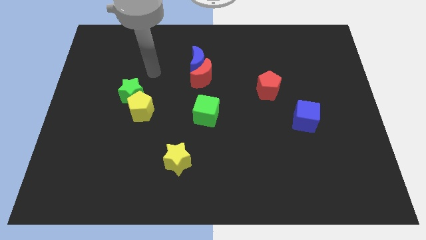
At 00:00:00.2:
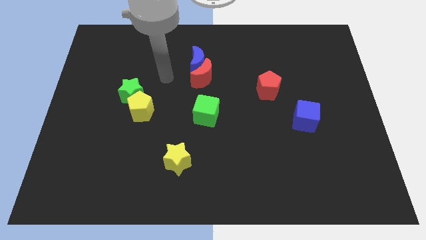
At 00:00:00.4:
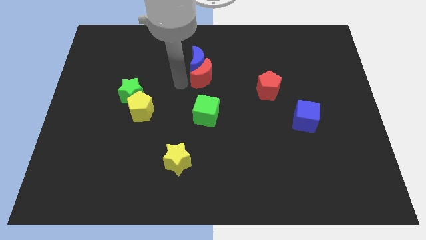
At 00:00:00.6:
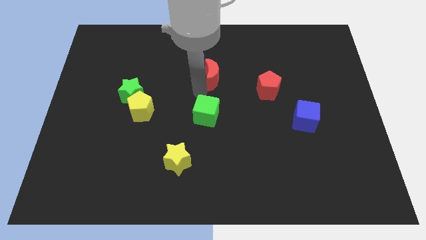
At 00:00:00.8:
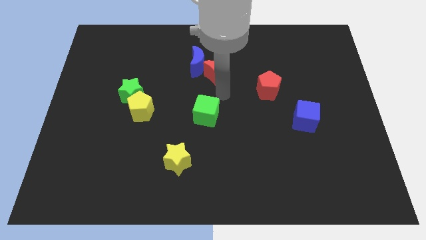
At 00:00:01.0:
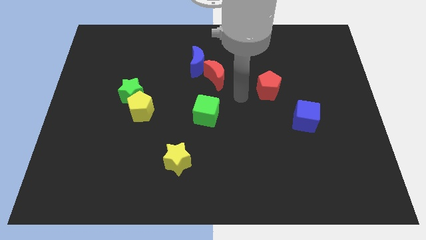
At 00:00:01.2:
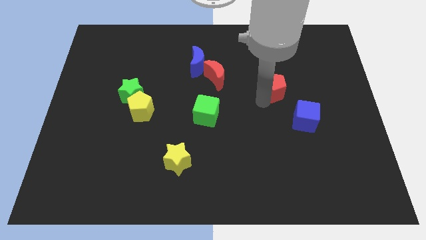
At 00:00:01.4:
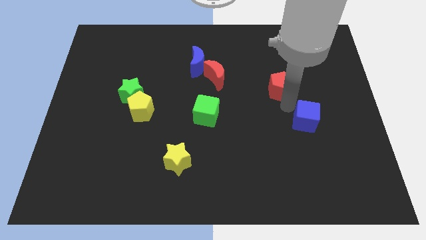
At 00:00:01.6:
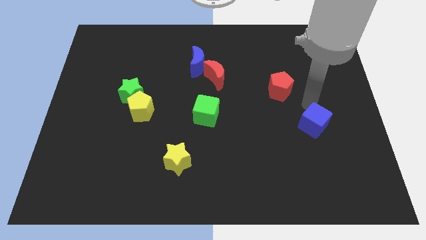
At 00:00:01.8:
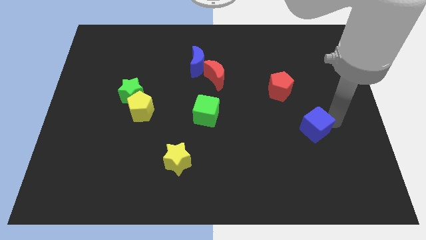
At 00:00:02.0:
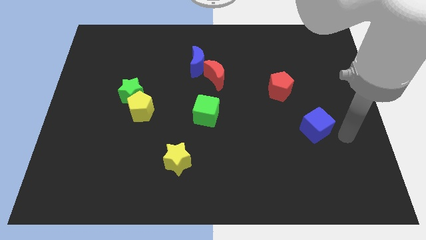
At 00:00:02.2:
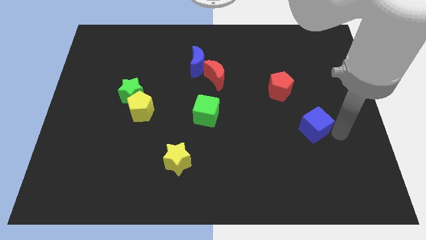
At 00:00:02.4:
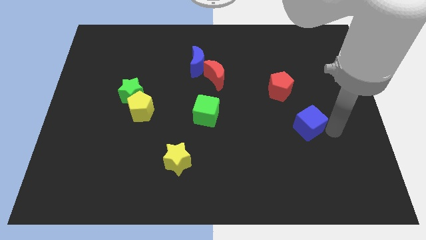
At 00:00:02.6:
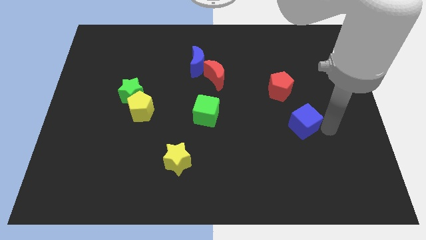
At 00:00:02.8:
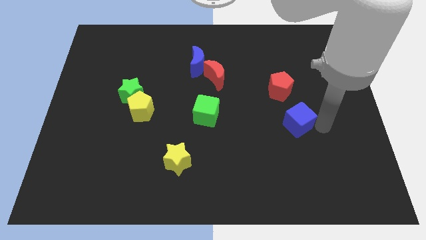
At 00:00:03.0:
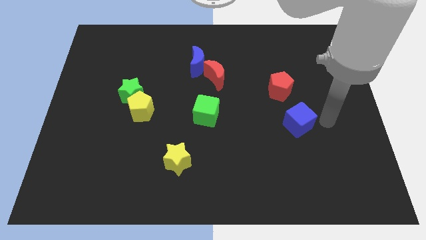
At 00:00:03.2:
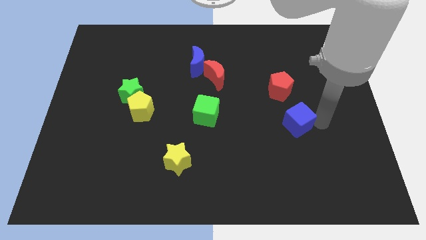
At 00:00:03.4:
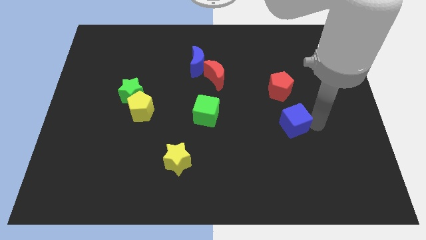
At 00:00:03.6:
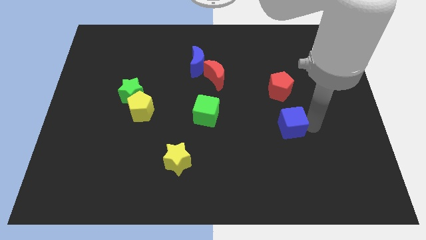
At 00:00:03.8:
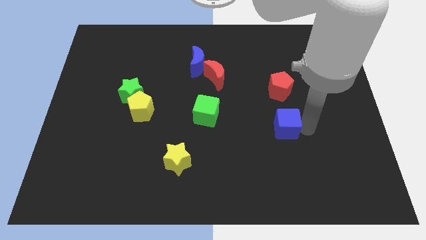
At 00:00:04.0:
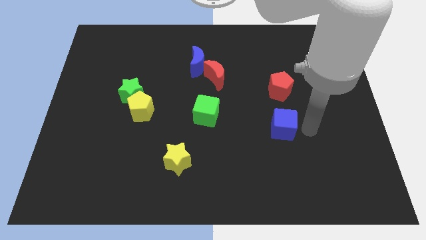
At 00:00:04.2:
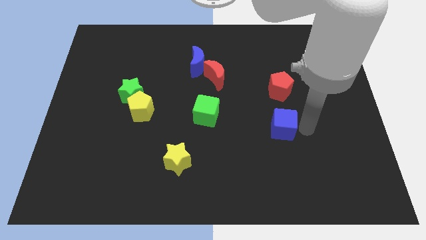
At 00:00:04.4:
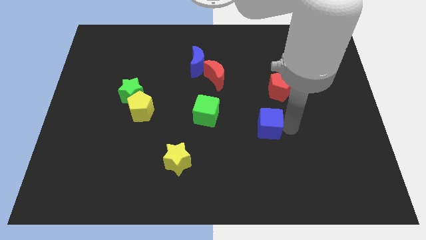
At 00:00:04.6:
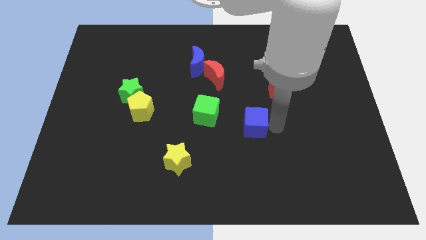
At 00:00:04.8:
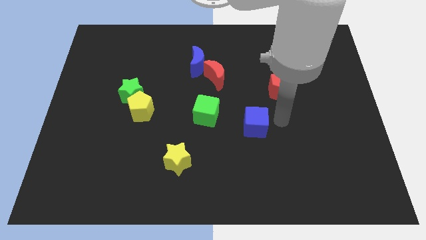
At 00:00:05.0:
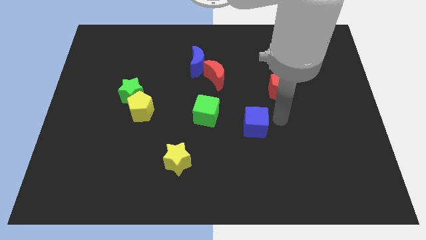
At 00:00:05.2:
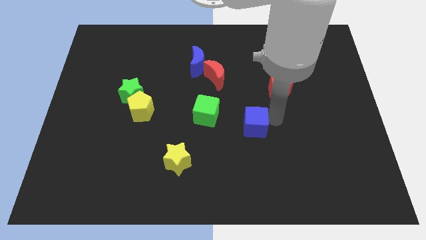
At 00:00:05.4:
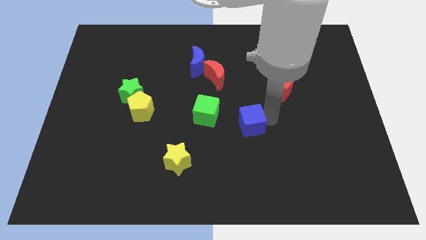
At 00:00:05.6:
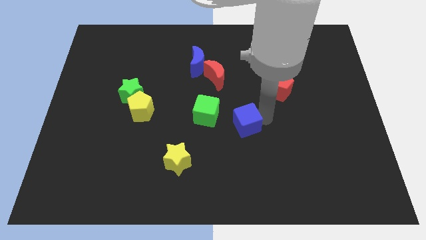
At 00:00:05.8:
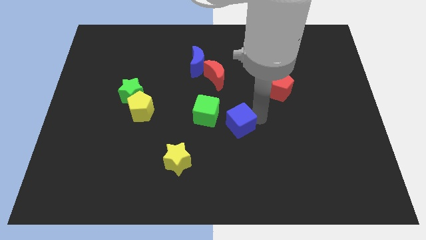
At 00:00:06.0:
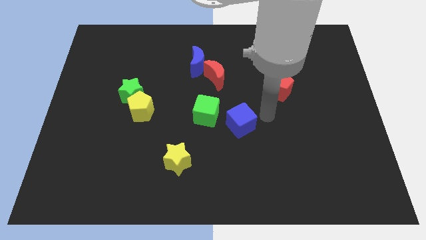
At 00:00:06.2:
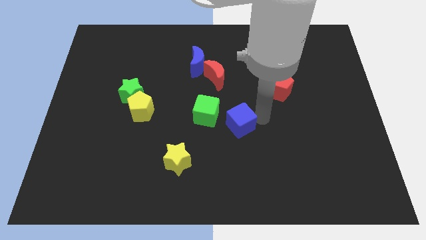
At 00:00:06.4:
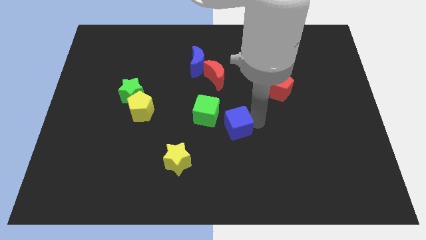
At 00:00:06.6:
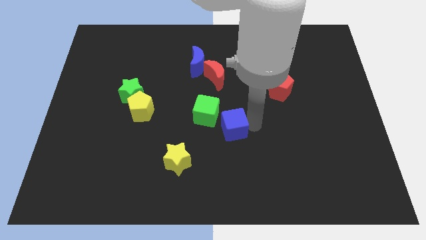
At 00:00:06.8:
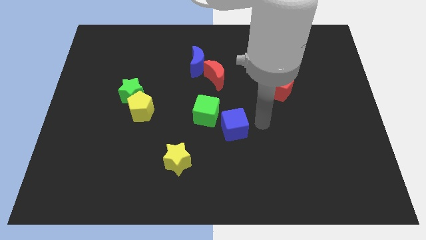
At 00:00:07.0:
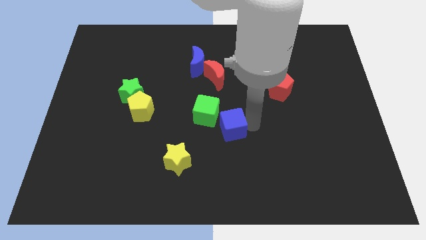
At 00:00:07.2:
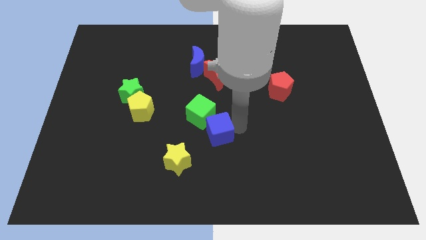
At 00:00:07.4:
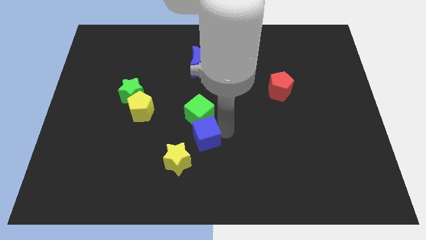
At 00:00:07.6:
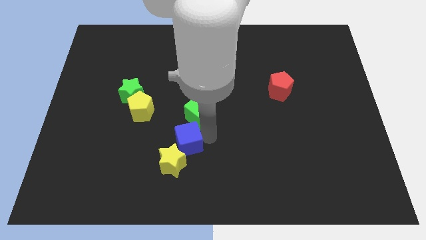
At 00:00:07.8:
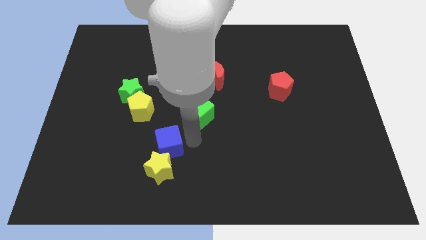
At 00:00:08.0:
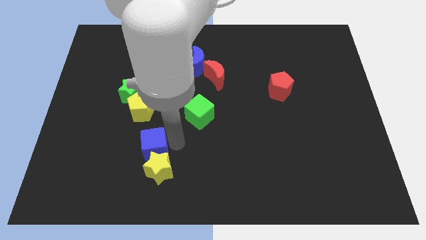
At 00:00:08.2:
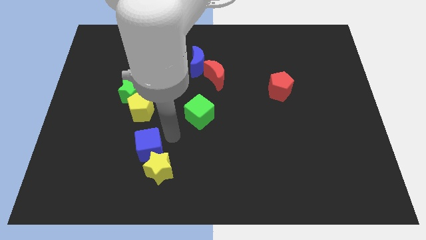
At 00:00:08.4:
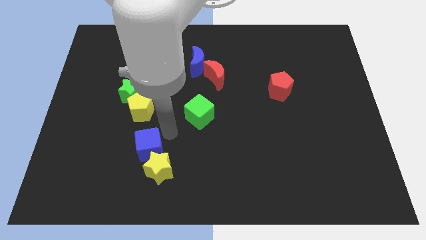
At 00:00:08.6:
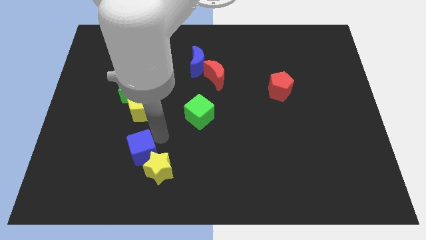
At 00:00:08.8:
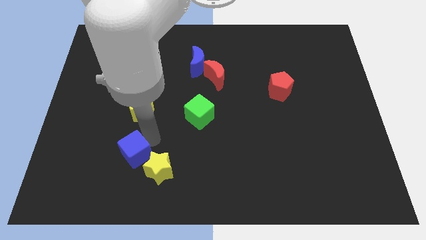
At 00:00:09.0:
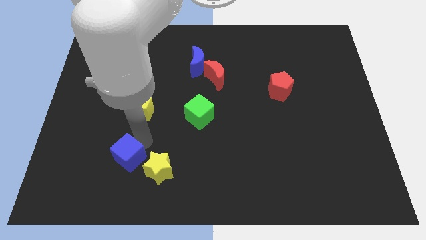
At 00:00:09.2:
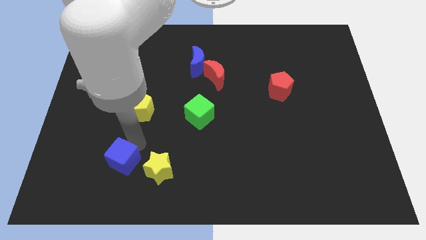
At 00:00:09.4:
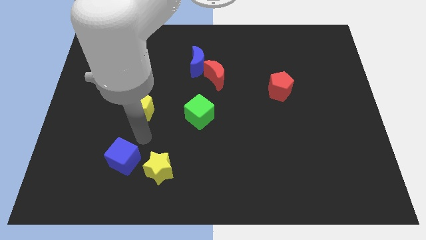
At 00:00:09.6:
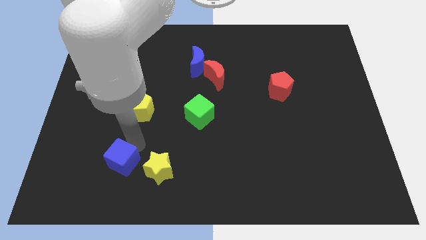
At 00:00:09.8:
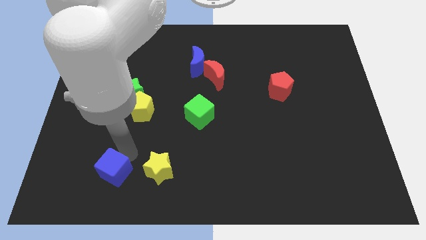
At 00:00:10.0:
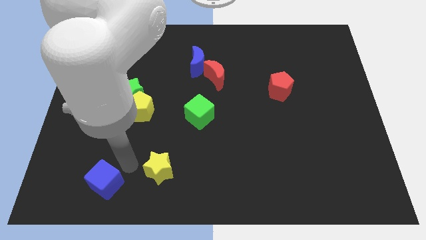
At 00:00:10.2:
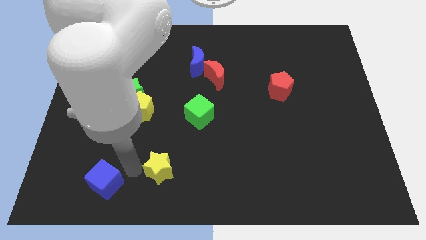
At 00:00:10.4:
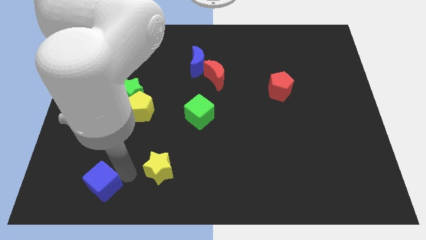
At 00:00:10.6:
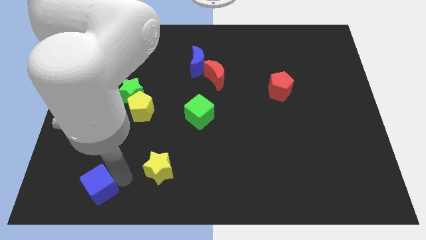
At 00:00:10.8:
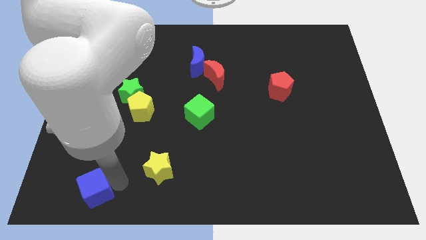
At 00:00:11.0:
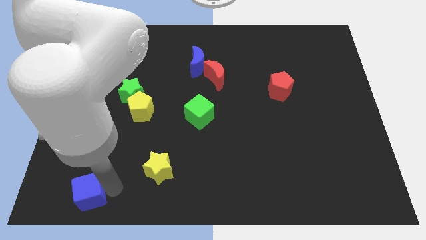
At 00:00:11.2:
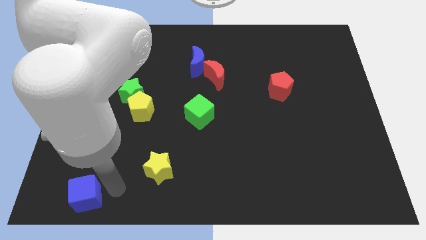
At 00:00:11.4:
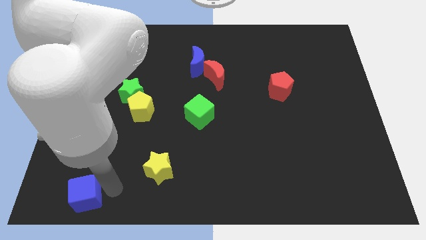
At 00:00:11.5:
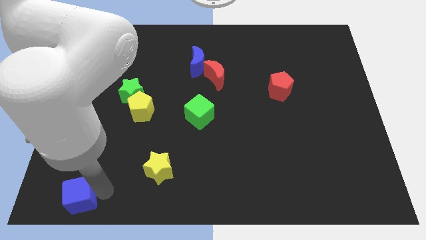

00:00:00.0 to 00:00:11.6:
slide the blue cube to the bottom left
